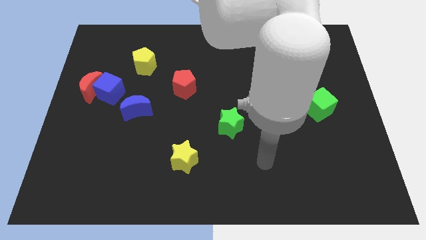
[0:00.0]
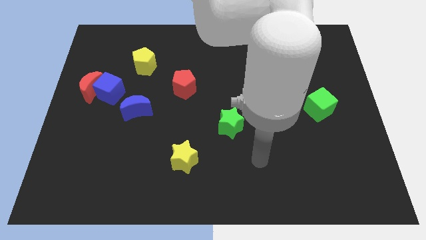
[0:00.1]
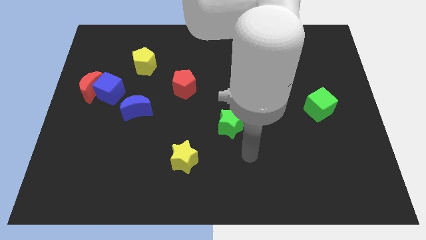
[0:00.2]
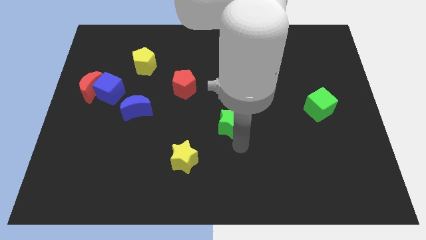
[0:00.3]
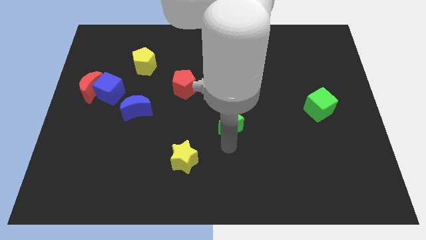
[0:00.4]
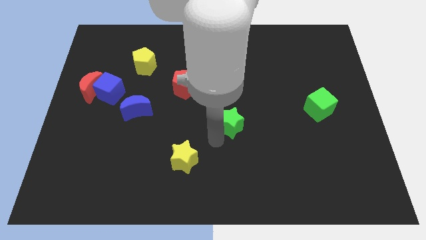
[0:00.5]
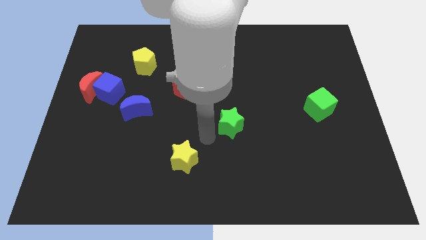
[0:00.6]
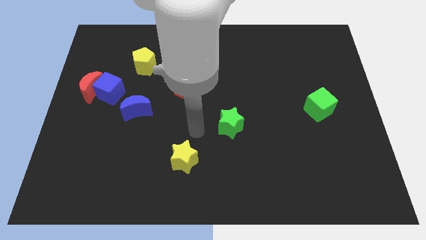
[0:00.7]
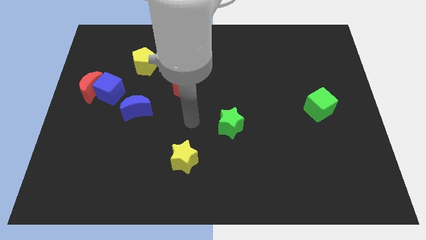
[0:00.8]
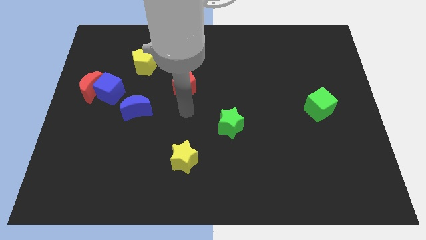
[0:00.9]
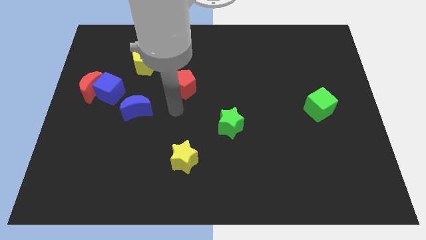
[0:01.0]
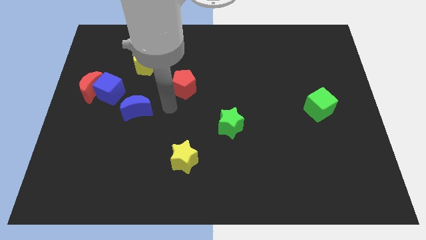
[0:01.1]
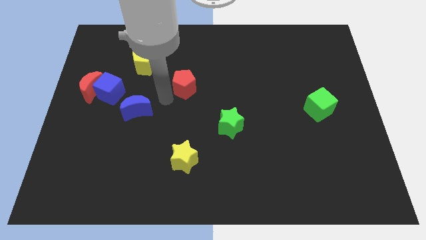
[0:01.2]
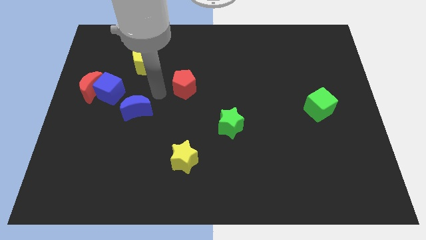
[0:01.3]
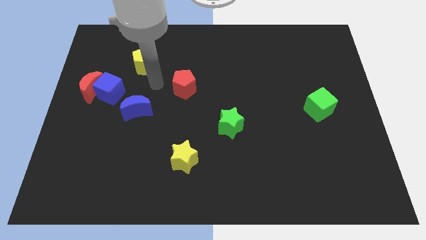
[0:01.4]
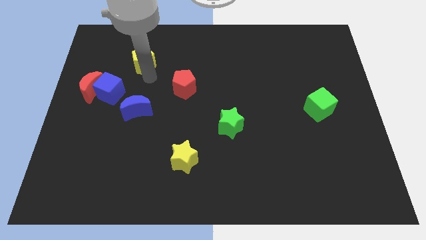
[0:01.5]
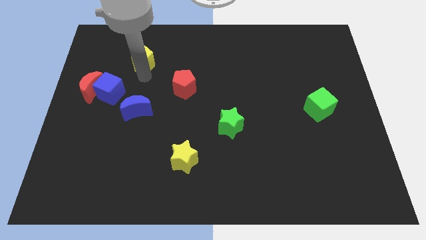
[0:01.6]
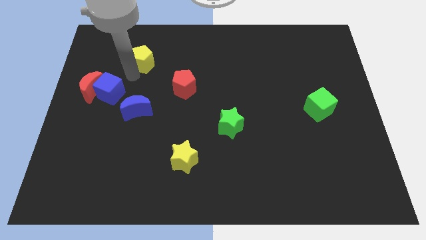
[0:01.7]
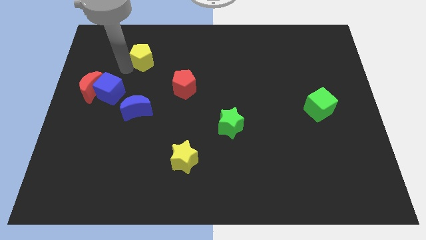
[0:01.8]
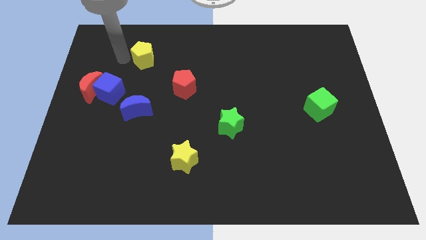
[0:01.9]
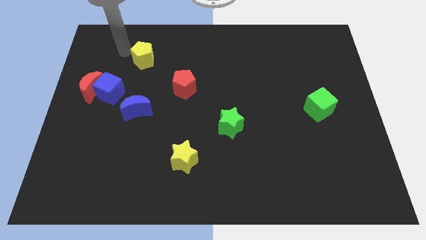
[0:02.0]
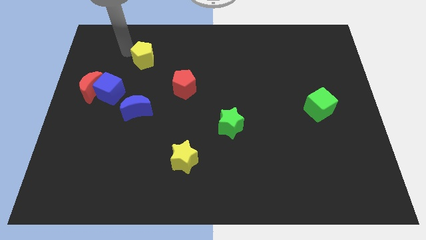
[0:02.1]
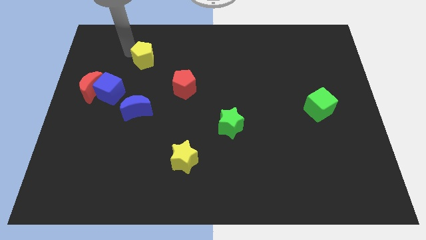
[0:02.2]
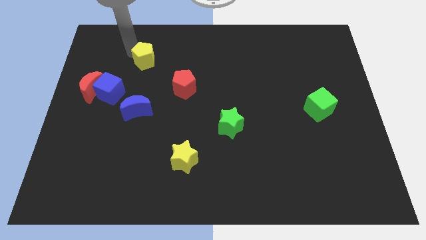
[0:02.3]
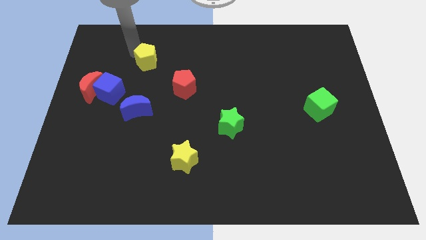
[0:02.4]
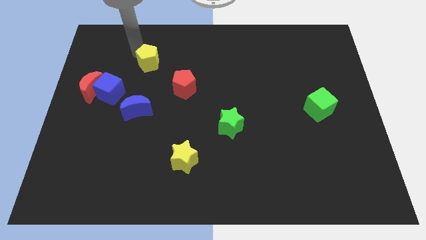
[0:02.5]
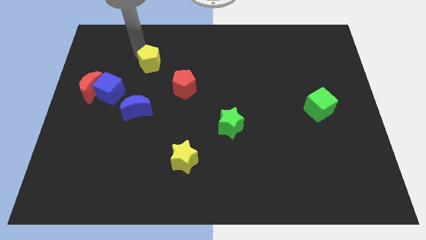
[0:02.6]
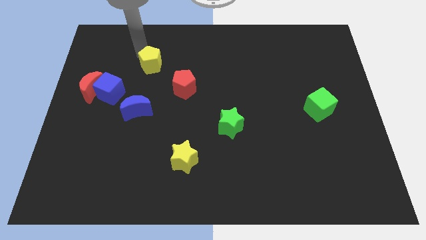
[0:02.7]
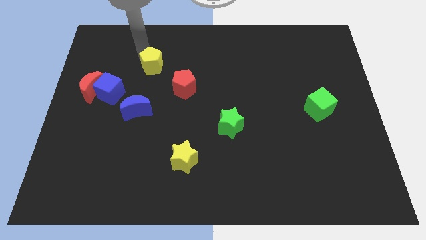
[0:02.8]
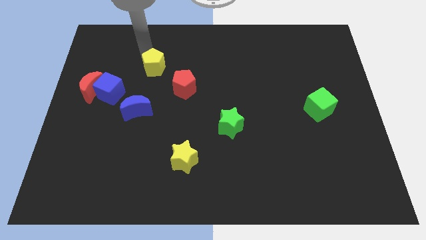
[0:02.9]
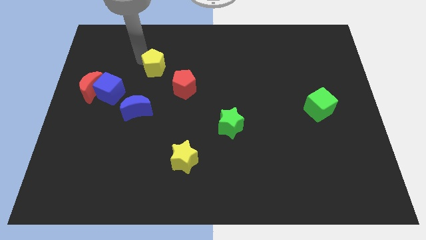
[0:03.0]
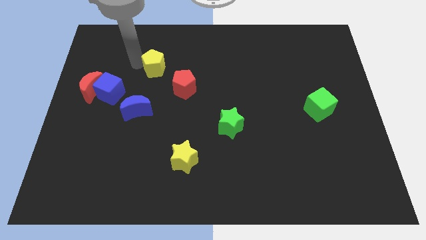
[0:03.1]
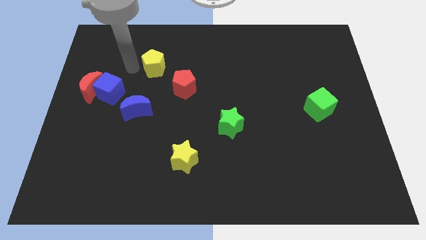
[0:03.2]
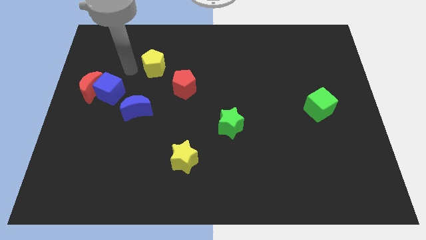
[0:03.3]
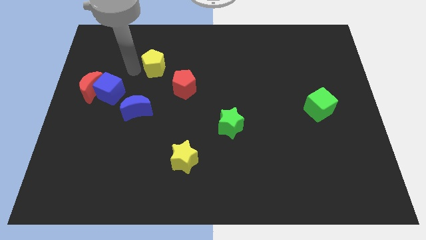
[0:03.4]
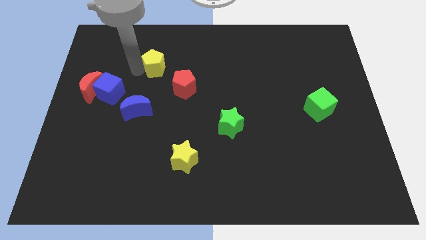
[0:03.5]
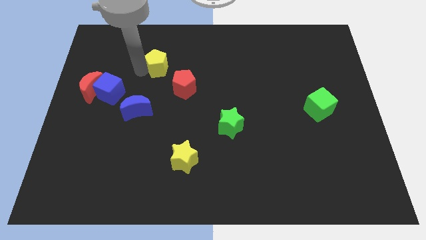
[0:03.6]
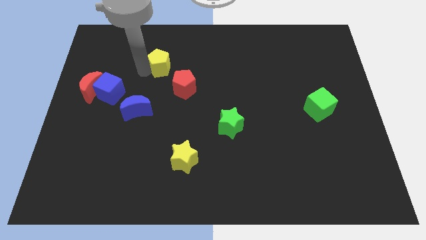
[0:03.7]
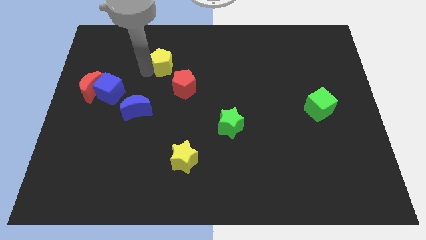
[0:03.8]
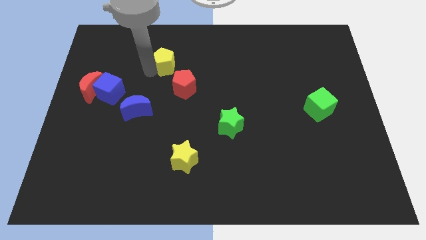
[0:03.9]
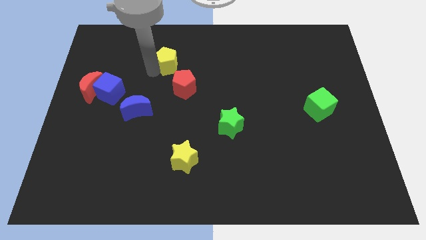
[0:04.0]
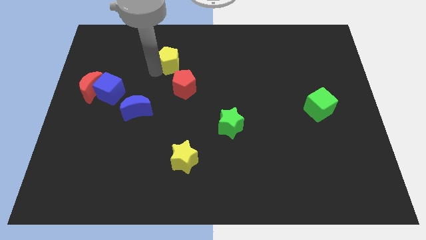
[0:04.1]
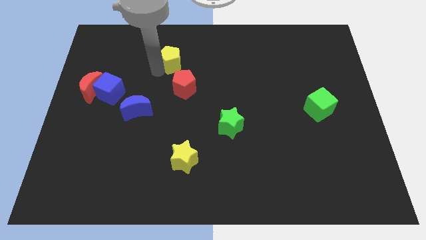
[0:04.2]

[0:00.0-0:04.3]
slightly push the yellow pentagon right

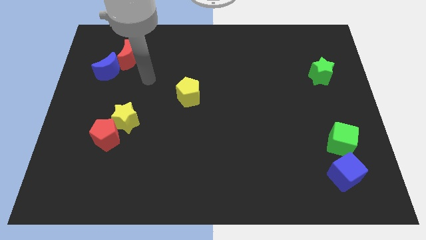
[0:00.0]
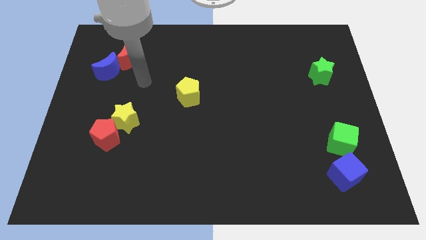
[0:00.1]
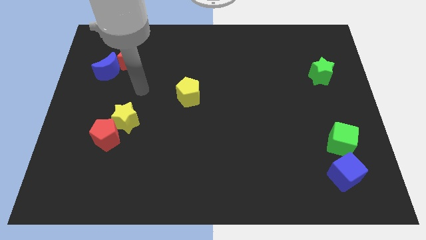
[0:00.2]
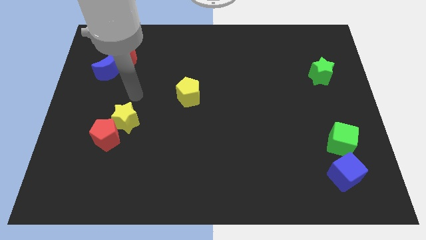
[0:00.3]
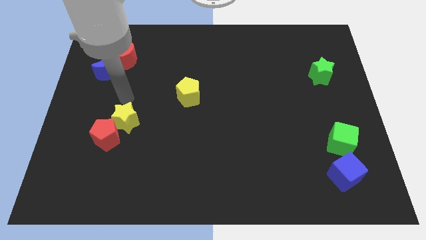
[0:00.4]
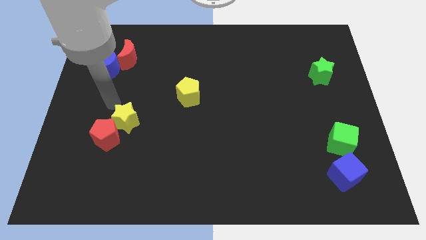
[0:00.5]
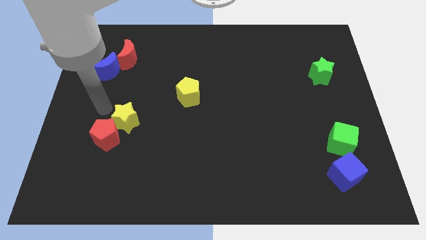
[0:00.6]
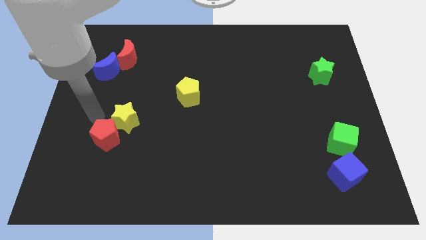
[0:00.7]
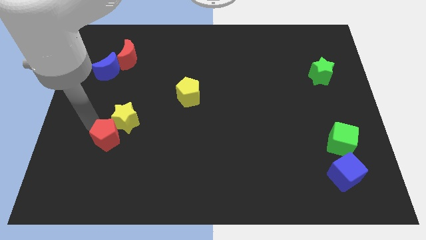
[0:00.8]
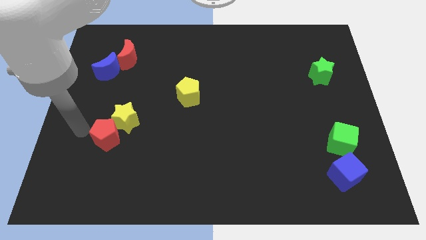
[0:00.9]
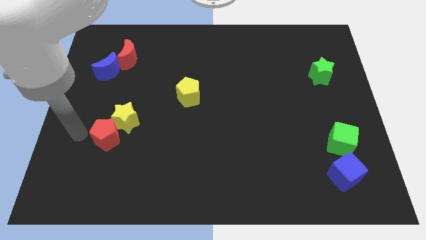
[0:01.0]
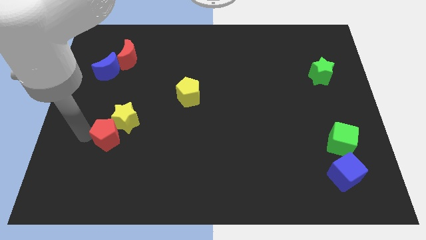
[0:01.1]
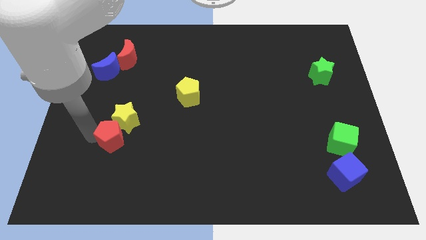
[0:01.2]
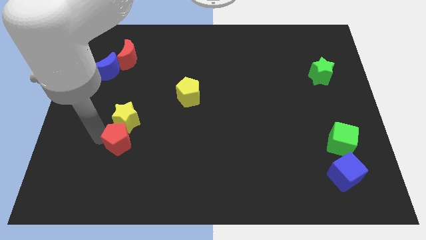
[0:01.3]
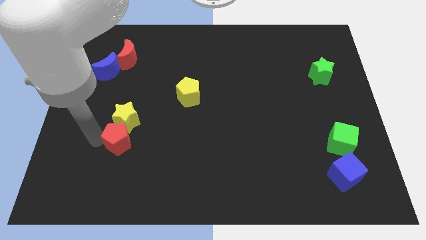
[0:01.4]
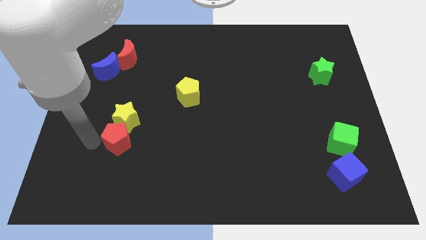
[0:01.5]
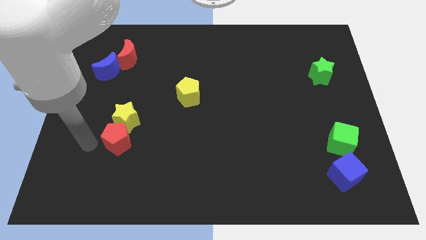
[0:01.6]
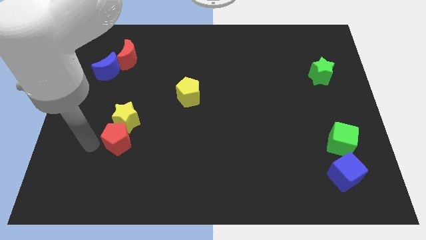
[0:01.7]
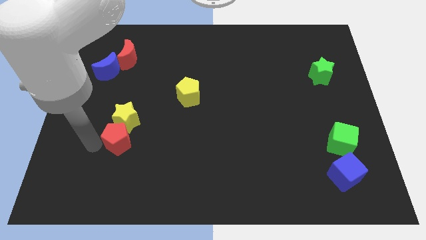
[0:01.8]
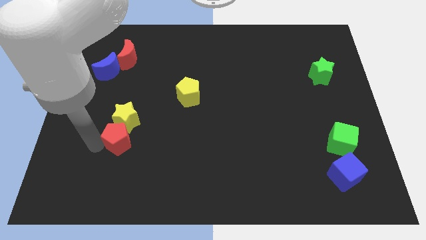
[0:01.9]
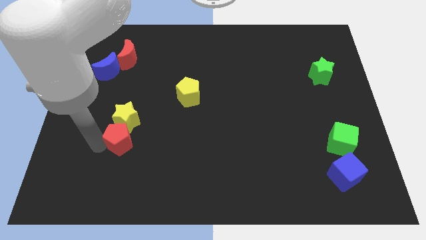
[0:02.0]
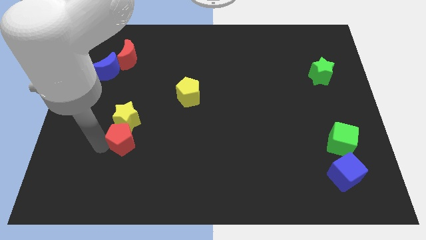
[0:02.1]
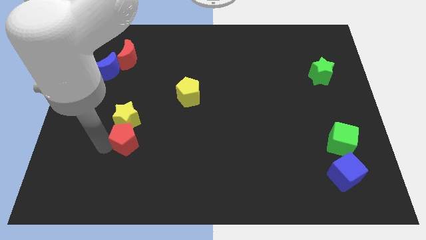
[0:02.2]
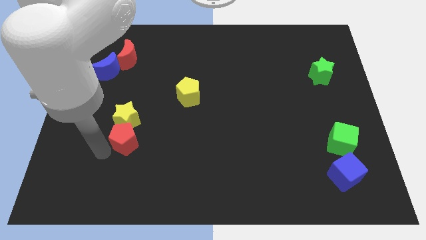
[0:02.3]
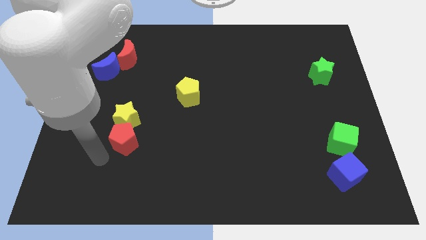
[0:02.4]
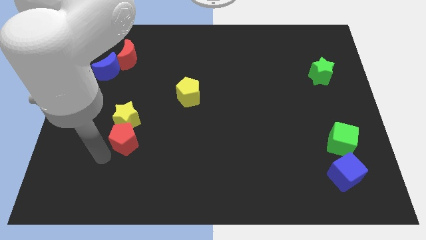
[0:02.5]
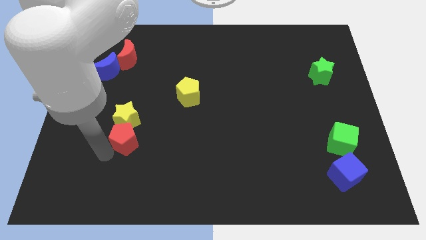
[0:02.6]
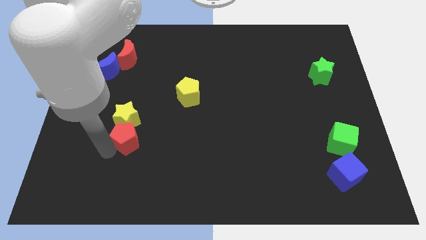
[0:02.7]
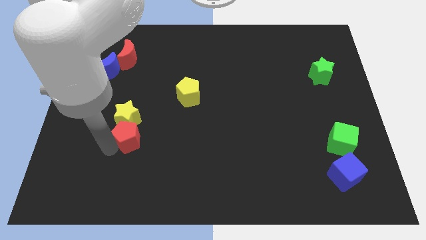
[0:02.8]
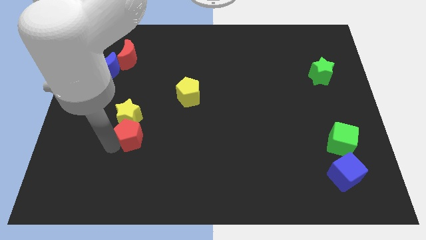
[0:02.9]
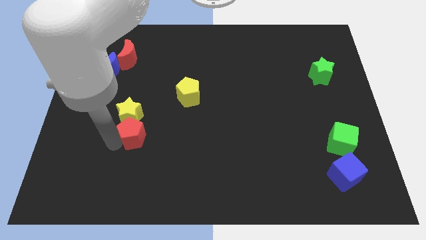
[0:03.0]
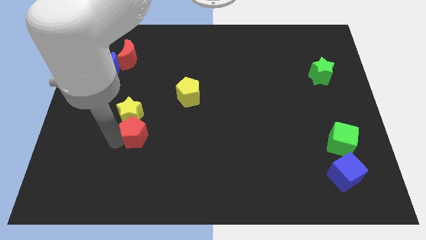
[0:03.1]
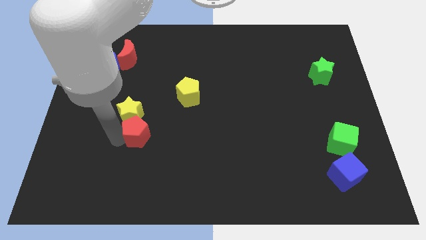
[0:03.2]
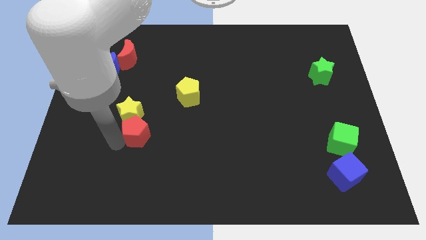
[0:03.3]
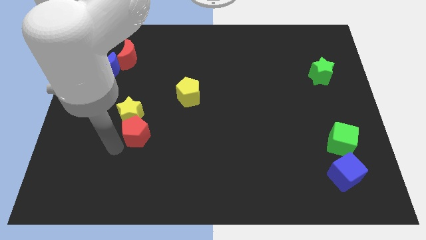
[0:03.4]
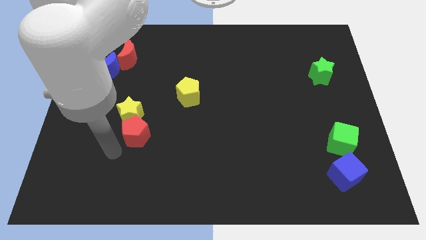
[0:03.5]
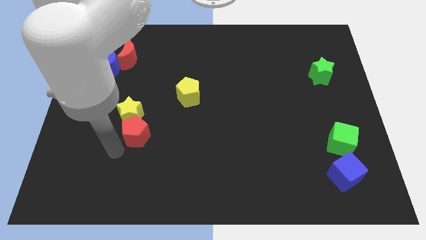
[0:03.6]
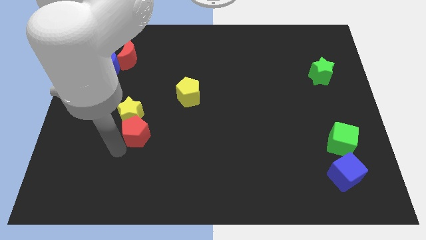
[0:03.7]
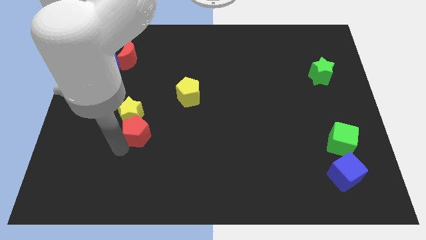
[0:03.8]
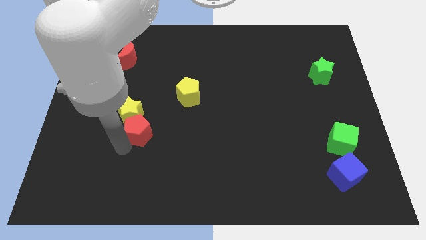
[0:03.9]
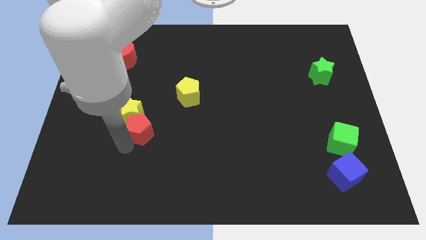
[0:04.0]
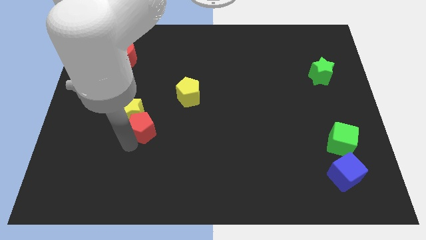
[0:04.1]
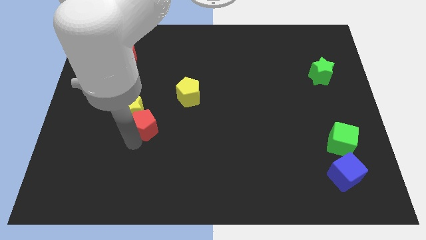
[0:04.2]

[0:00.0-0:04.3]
slide the red pentagon up and to the right diagonally slightly
